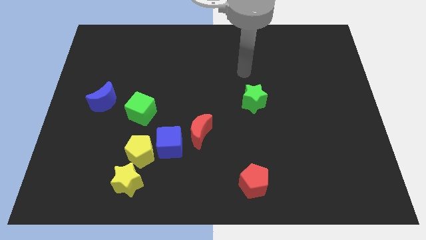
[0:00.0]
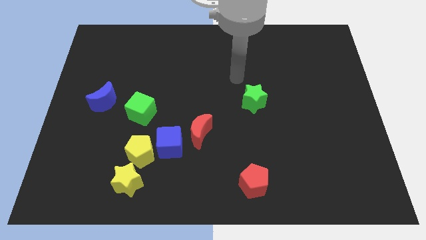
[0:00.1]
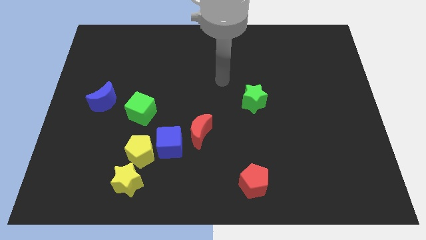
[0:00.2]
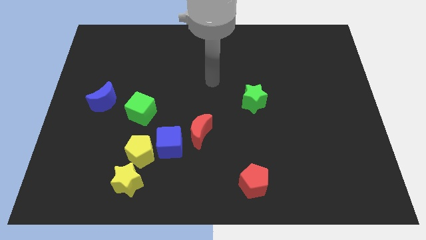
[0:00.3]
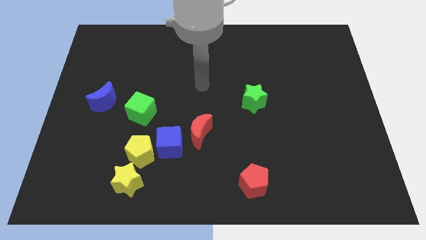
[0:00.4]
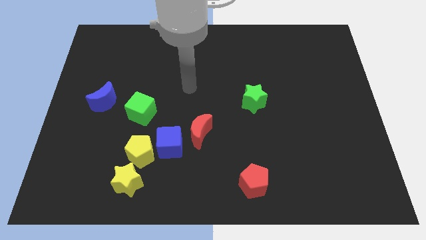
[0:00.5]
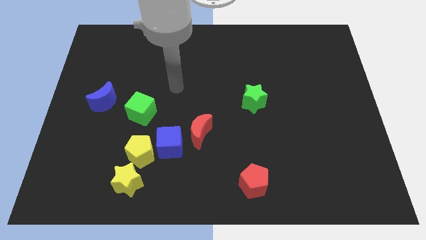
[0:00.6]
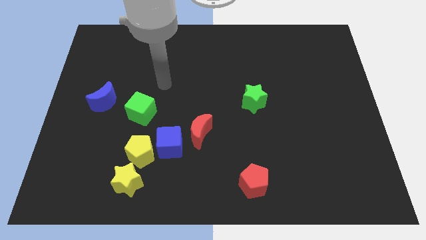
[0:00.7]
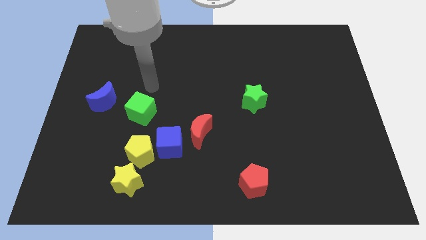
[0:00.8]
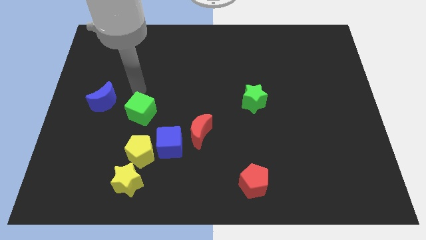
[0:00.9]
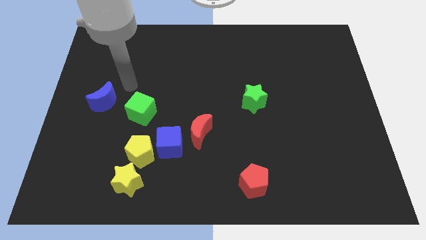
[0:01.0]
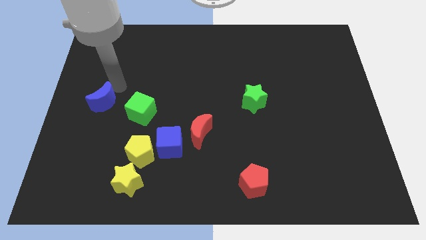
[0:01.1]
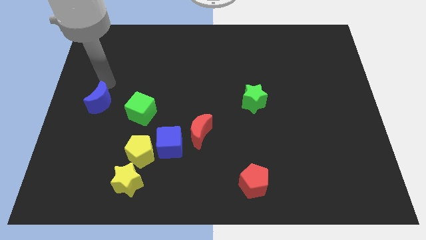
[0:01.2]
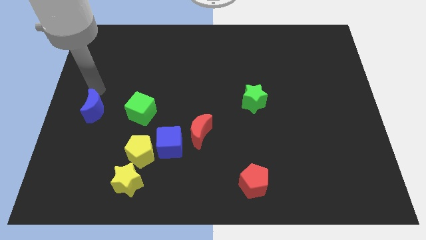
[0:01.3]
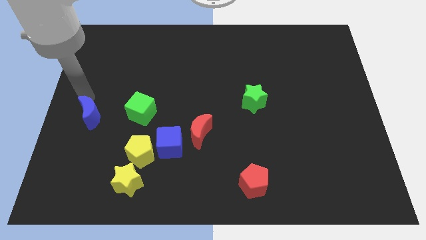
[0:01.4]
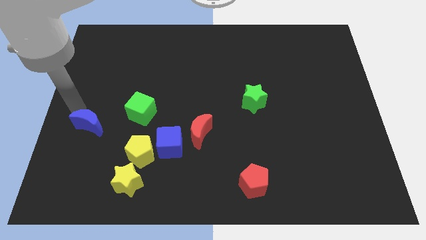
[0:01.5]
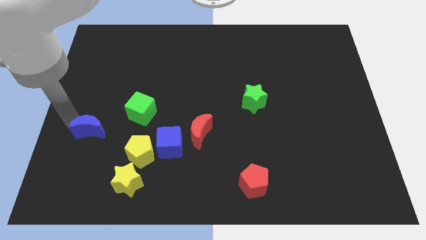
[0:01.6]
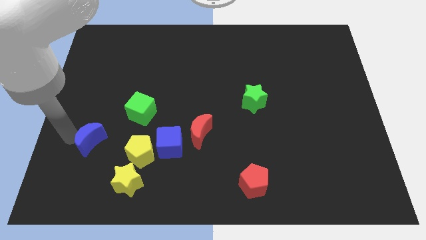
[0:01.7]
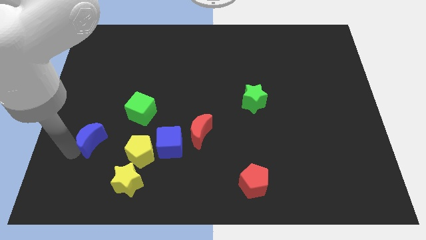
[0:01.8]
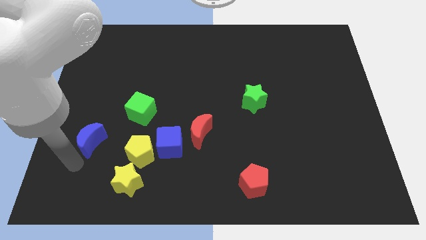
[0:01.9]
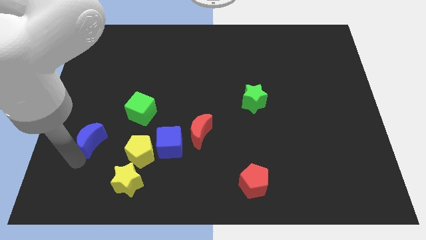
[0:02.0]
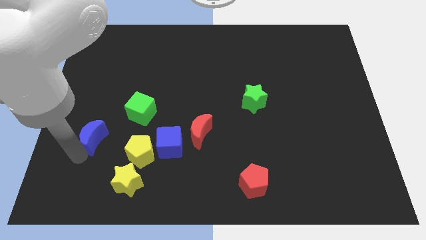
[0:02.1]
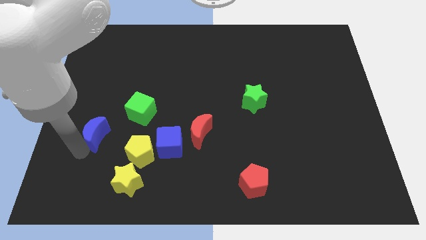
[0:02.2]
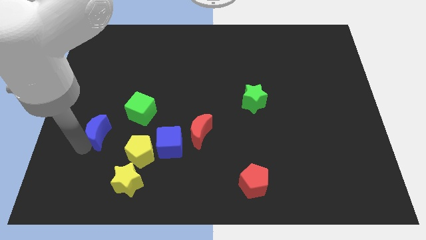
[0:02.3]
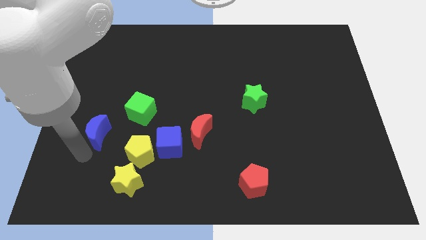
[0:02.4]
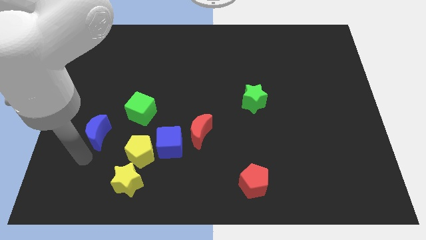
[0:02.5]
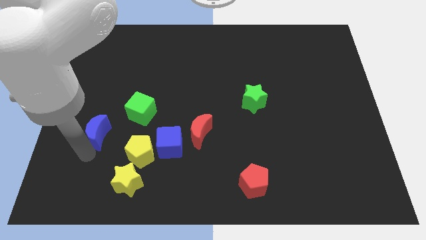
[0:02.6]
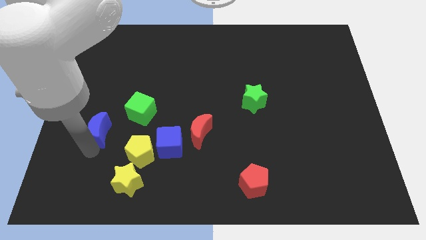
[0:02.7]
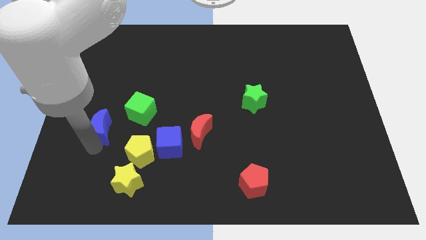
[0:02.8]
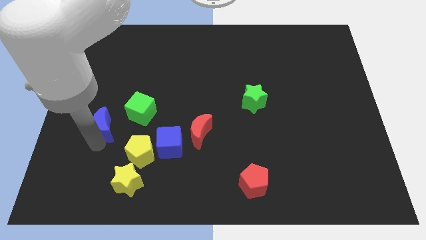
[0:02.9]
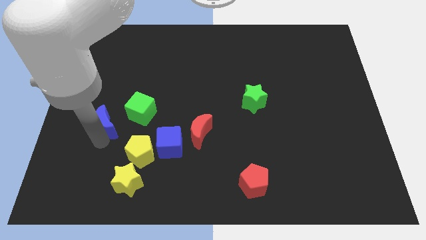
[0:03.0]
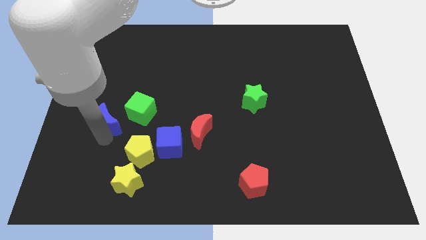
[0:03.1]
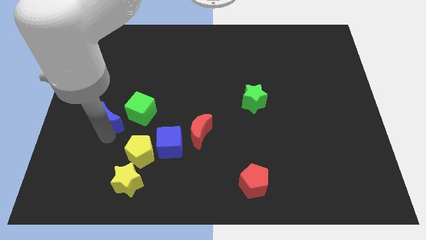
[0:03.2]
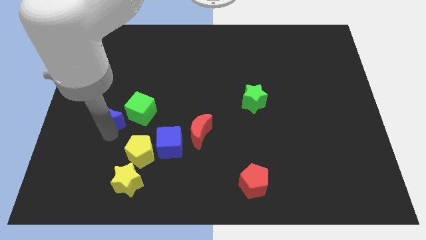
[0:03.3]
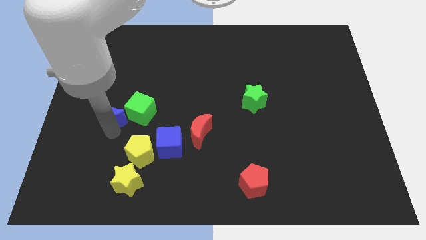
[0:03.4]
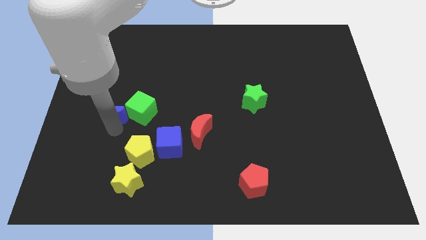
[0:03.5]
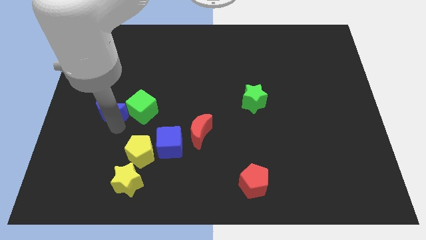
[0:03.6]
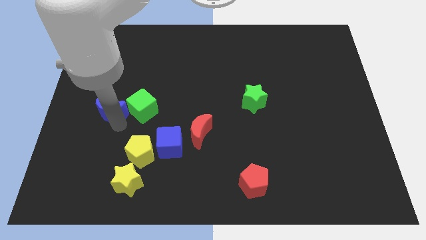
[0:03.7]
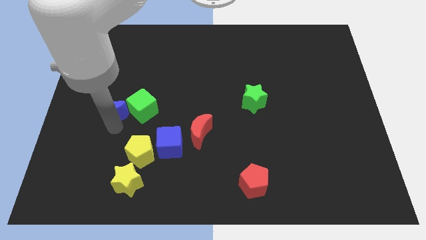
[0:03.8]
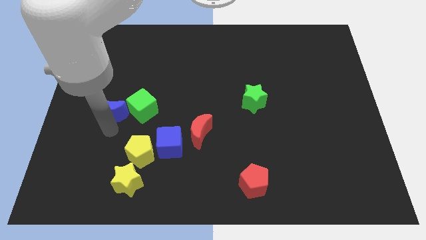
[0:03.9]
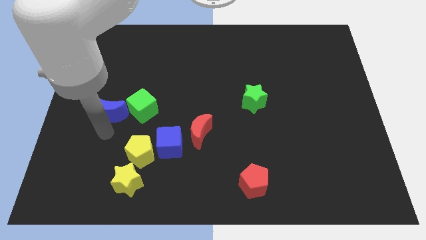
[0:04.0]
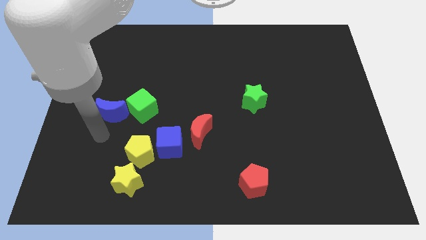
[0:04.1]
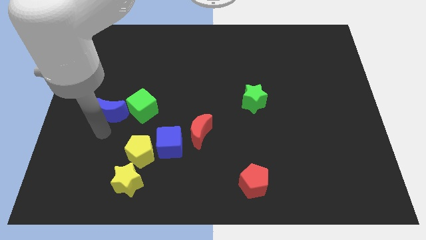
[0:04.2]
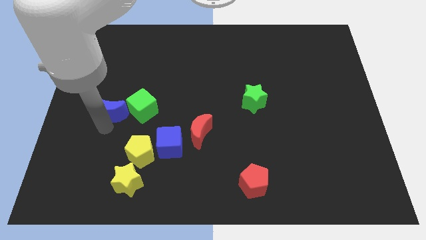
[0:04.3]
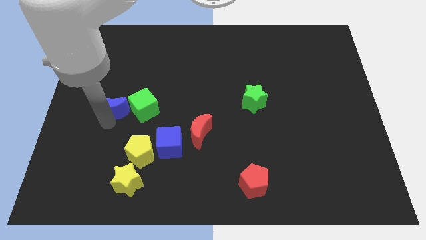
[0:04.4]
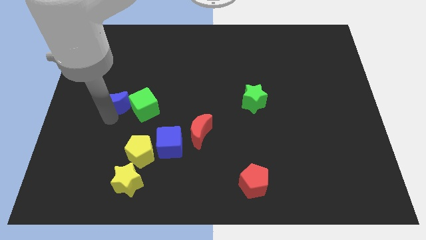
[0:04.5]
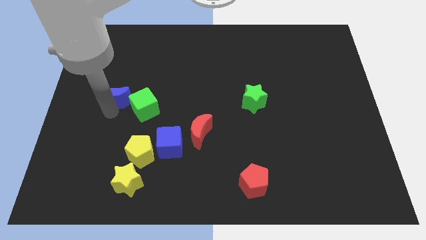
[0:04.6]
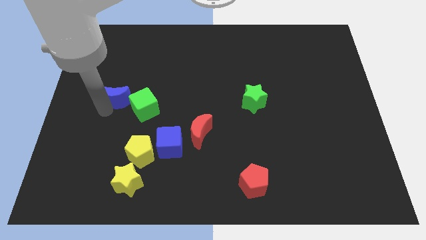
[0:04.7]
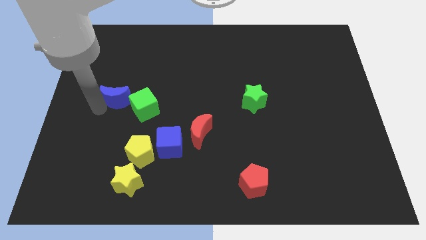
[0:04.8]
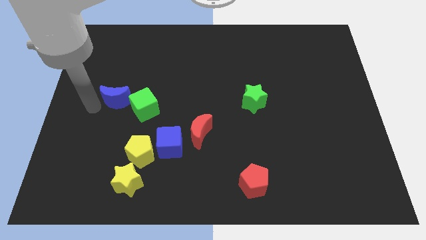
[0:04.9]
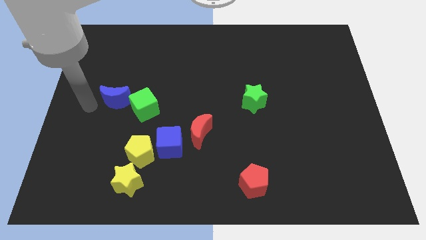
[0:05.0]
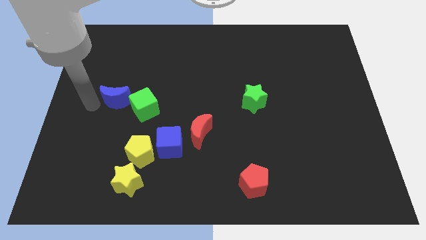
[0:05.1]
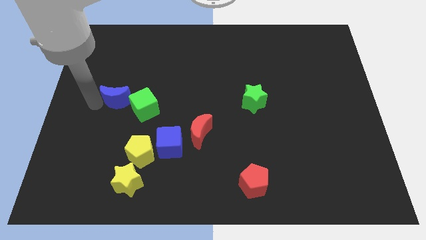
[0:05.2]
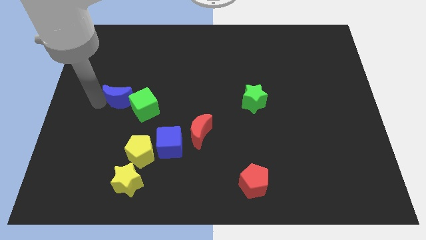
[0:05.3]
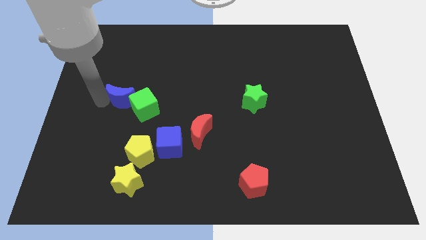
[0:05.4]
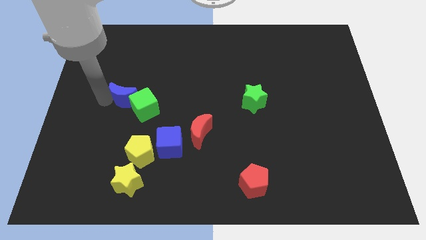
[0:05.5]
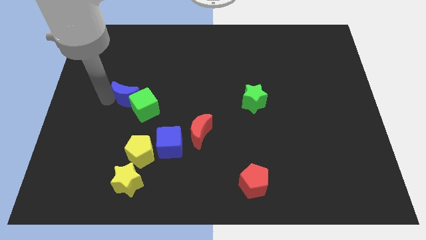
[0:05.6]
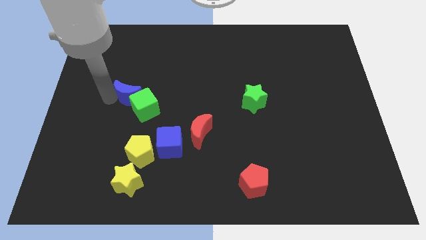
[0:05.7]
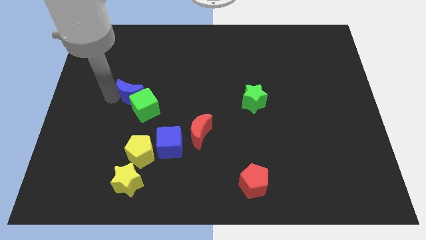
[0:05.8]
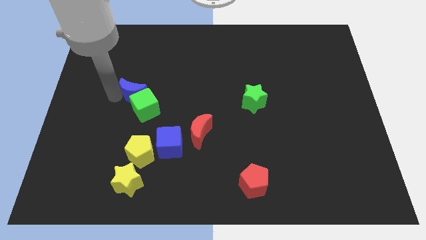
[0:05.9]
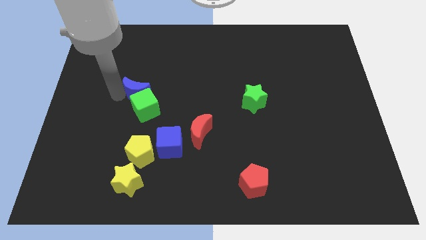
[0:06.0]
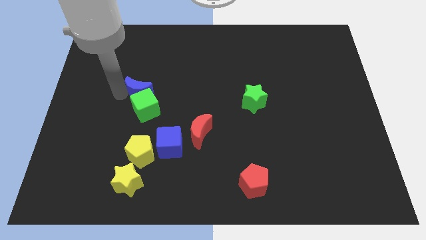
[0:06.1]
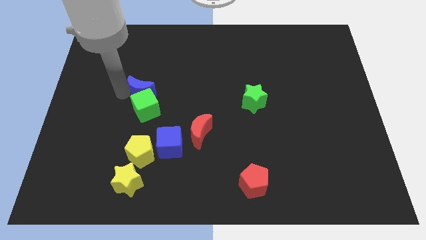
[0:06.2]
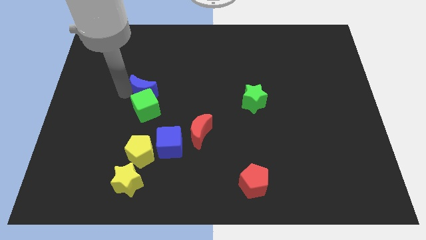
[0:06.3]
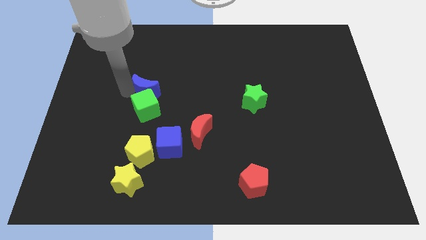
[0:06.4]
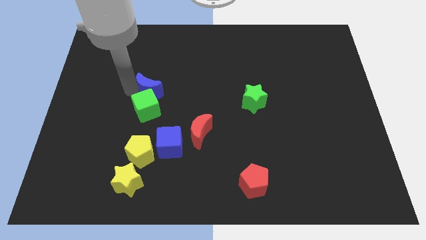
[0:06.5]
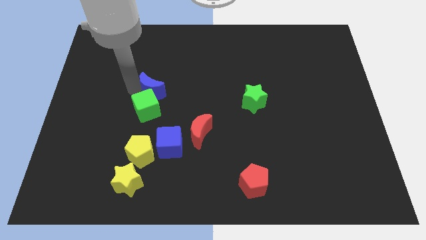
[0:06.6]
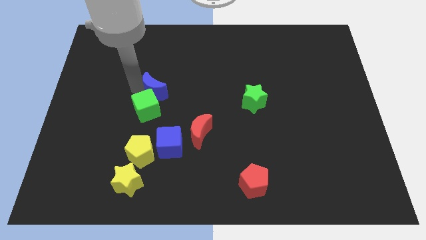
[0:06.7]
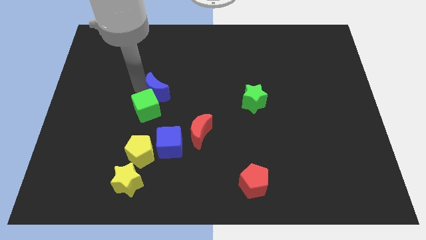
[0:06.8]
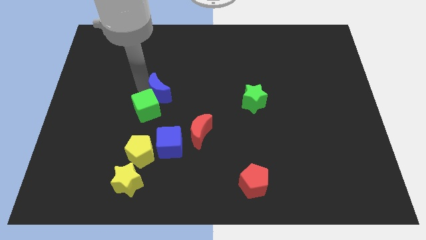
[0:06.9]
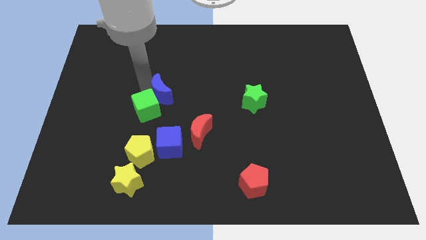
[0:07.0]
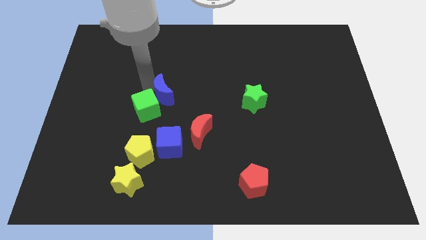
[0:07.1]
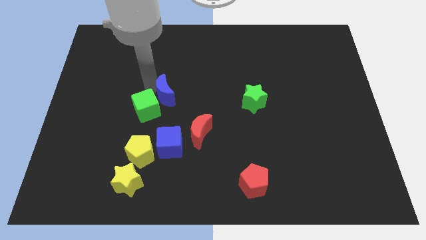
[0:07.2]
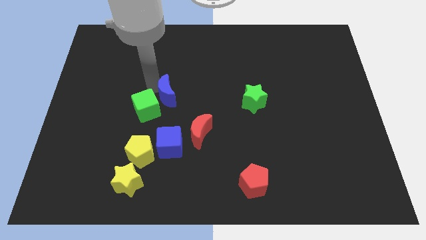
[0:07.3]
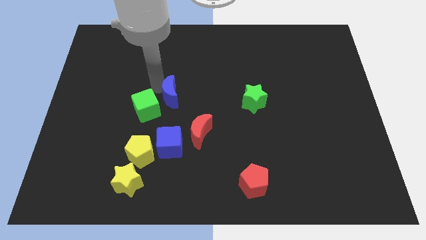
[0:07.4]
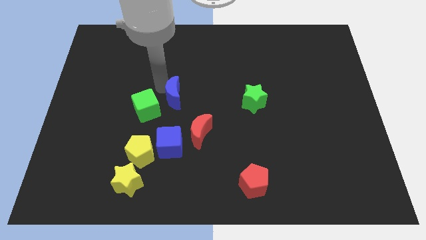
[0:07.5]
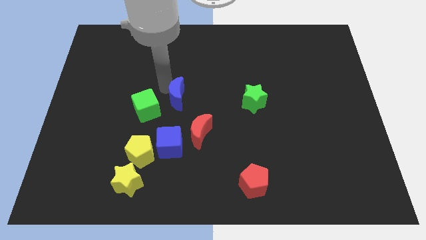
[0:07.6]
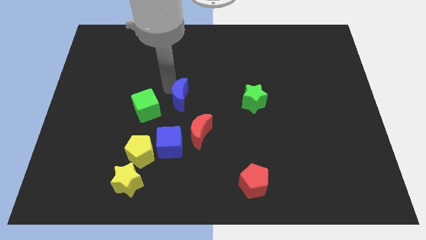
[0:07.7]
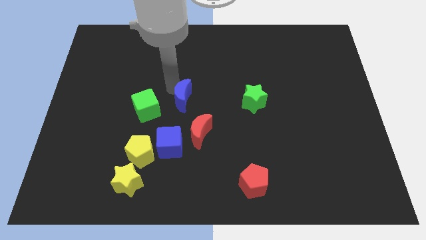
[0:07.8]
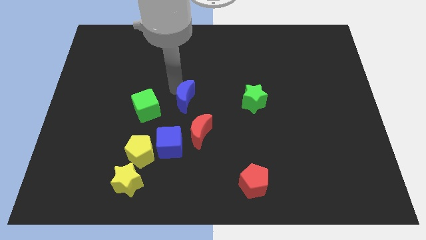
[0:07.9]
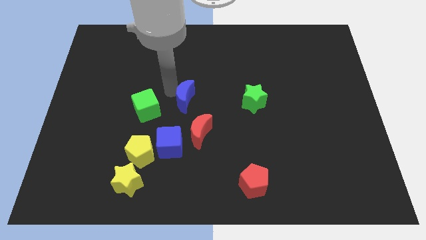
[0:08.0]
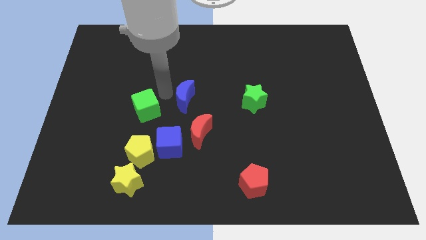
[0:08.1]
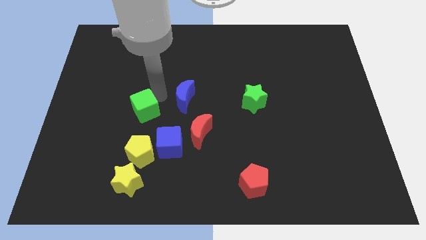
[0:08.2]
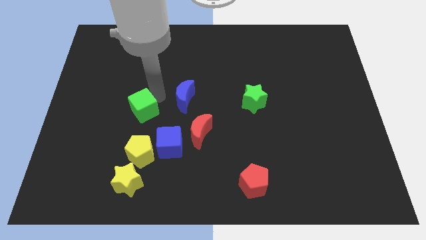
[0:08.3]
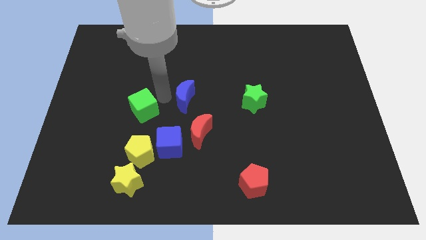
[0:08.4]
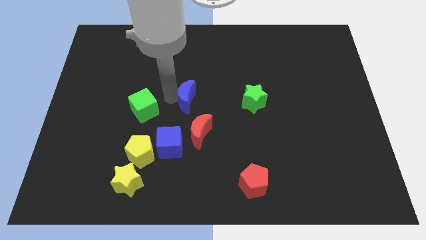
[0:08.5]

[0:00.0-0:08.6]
move the blue moon left of the green star
